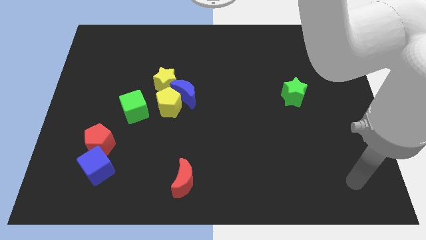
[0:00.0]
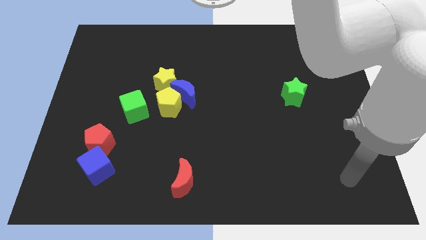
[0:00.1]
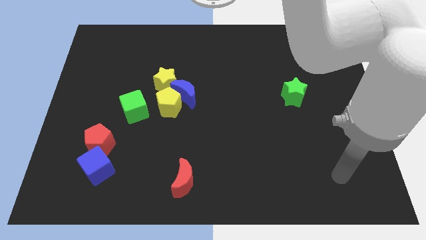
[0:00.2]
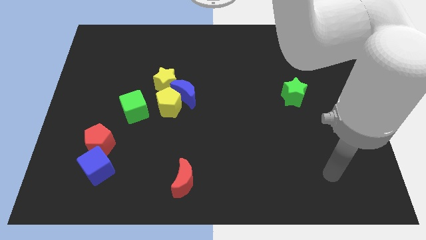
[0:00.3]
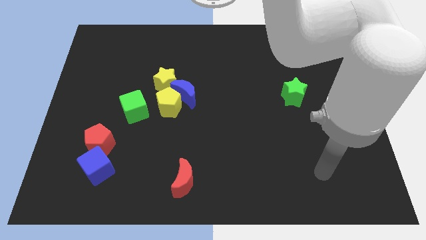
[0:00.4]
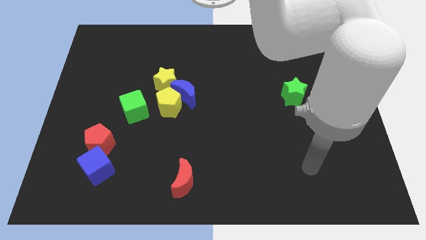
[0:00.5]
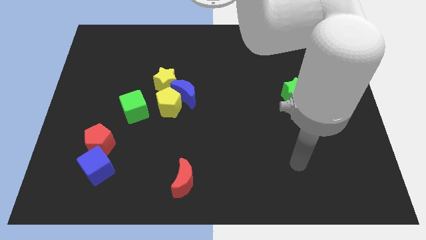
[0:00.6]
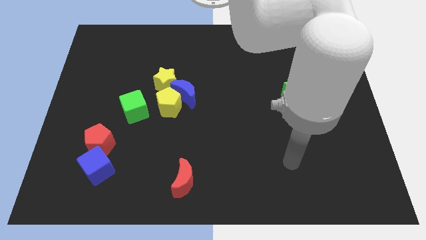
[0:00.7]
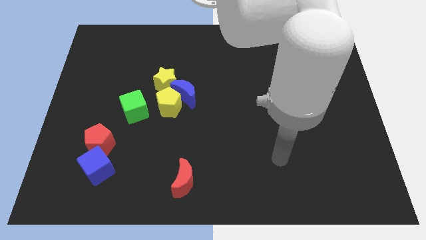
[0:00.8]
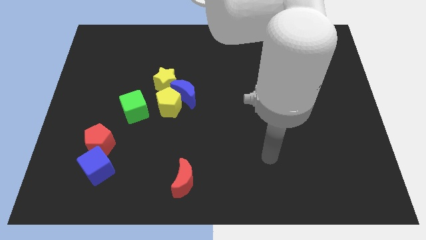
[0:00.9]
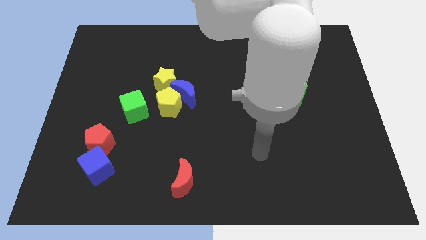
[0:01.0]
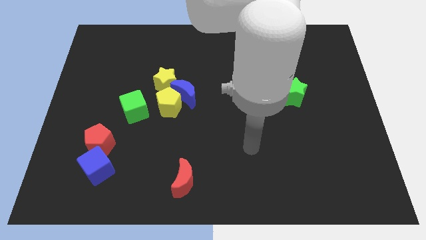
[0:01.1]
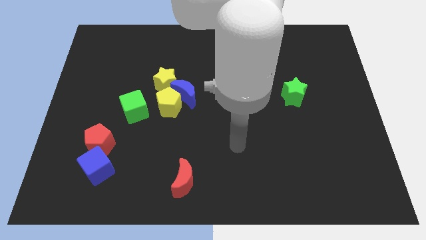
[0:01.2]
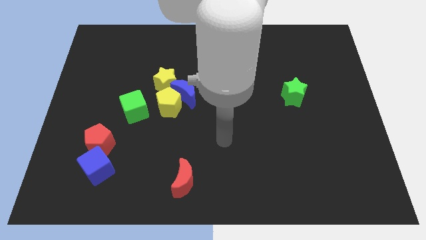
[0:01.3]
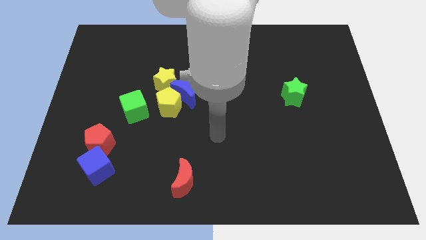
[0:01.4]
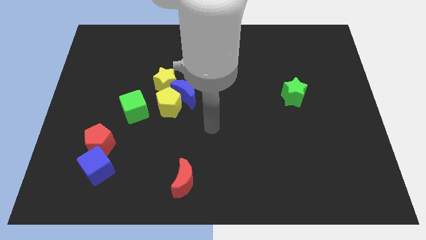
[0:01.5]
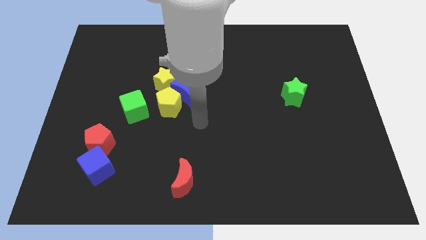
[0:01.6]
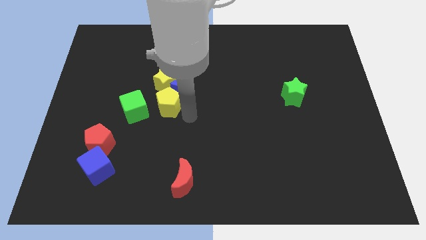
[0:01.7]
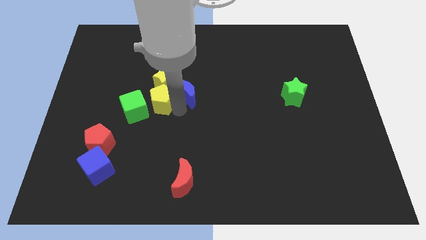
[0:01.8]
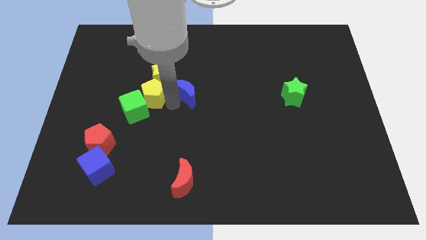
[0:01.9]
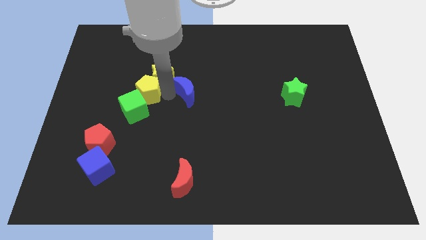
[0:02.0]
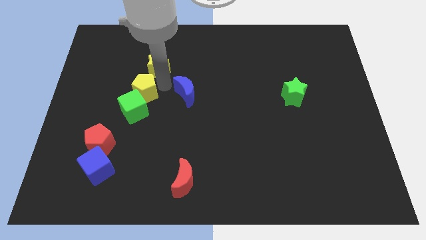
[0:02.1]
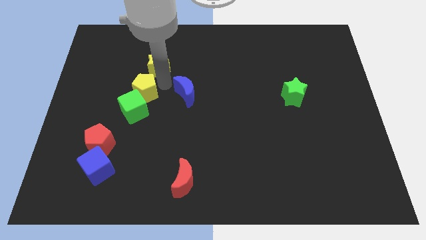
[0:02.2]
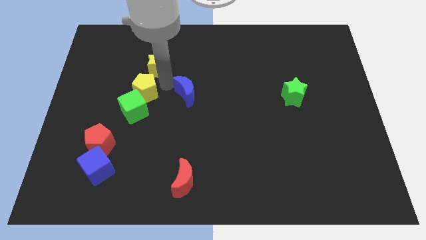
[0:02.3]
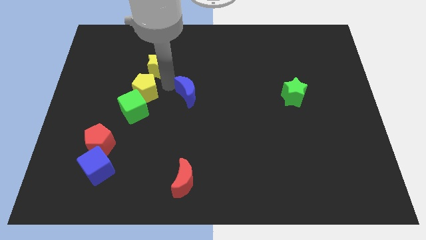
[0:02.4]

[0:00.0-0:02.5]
pull the blue moon apart from the yellow pentagon and yellow star

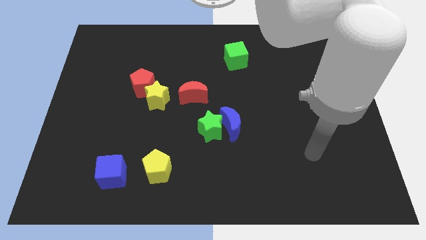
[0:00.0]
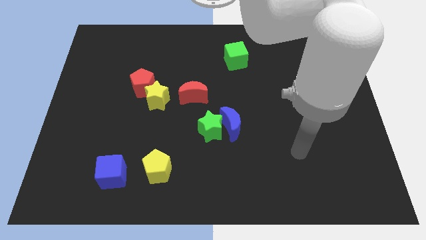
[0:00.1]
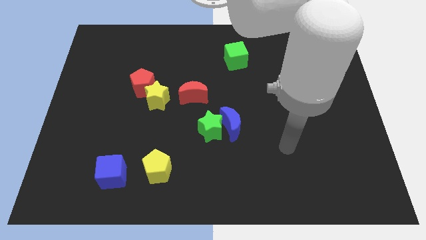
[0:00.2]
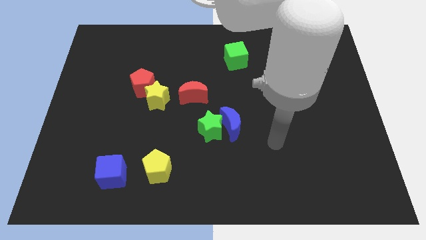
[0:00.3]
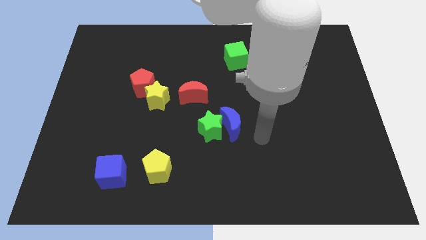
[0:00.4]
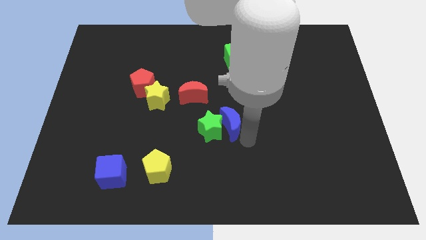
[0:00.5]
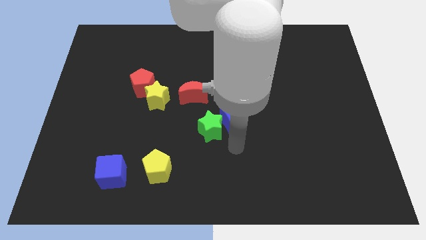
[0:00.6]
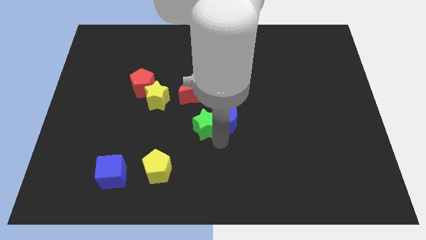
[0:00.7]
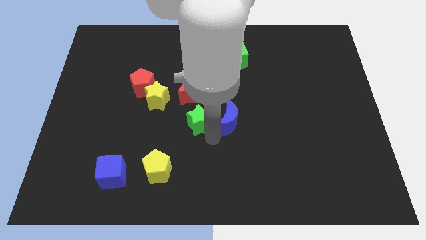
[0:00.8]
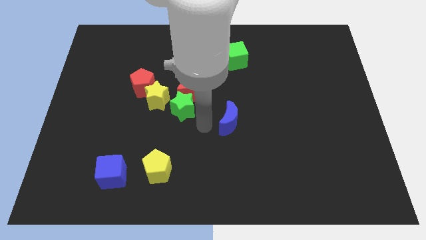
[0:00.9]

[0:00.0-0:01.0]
move the blue moon away from the green star

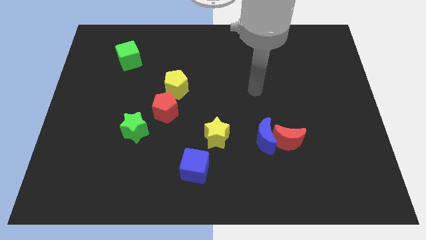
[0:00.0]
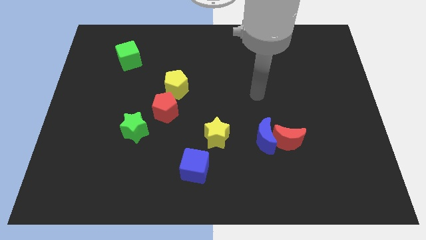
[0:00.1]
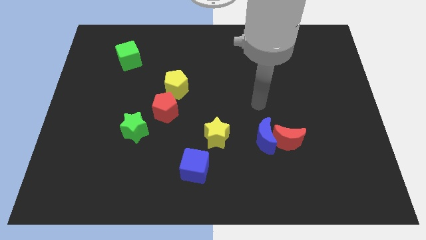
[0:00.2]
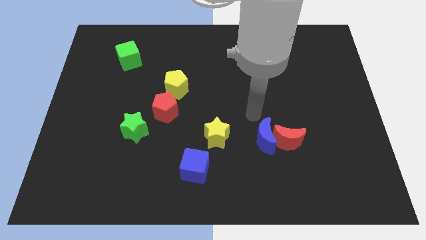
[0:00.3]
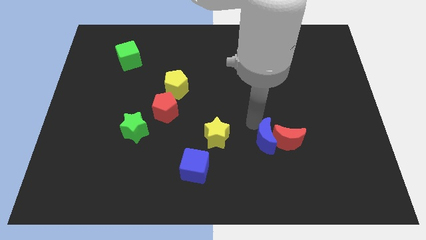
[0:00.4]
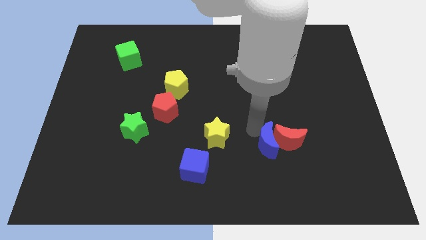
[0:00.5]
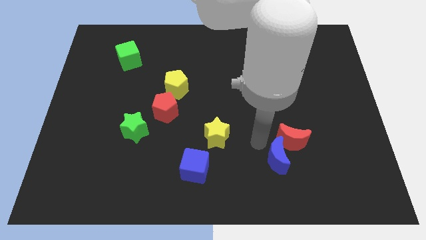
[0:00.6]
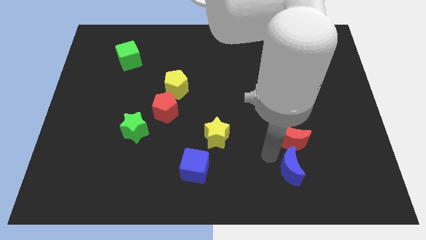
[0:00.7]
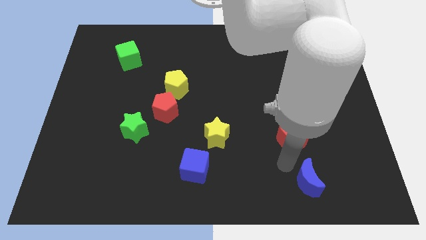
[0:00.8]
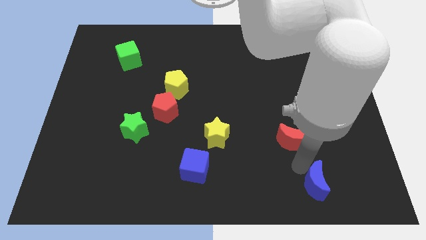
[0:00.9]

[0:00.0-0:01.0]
move the red moon away from the blue moon

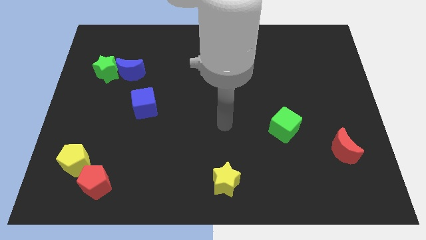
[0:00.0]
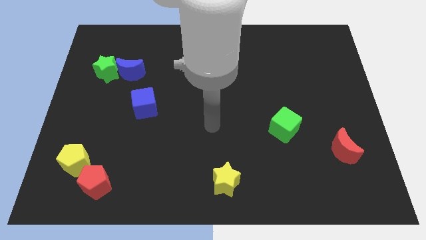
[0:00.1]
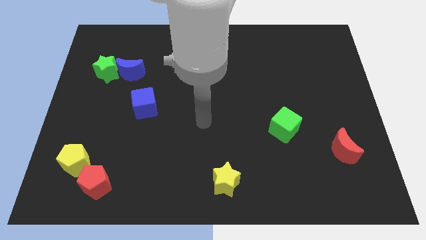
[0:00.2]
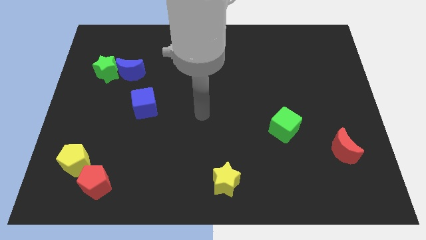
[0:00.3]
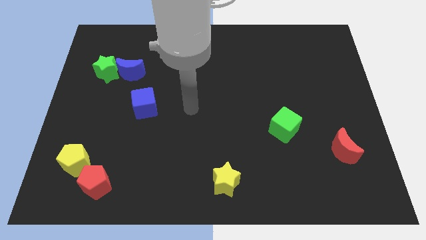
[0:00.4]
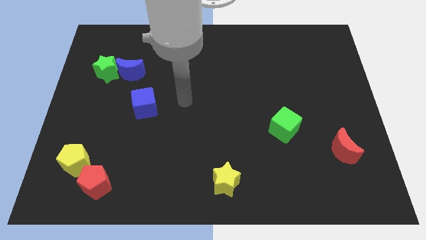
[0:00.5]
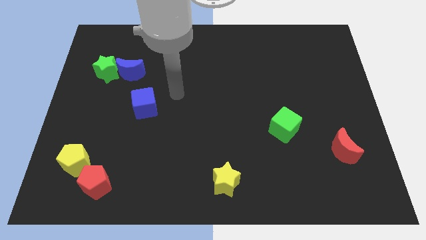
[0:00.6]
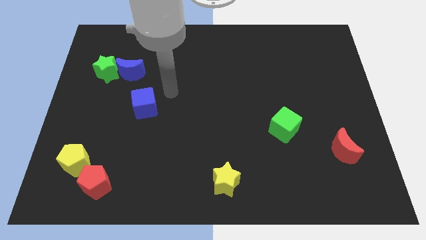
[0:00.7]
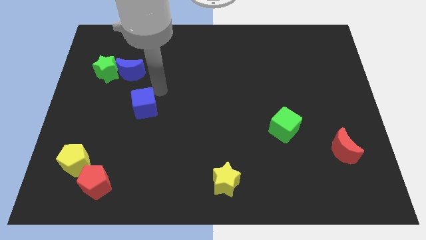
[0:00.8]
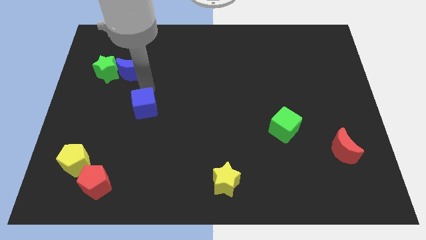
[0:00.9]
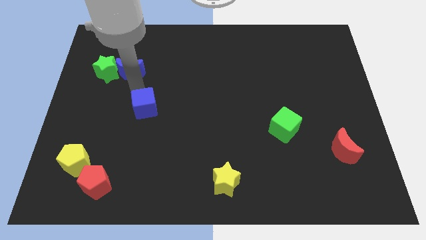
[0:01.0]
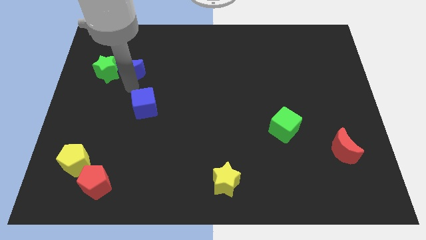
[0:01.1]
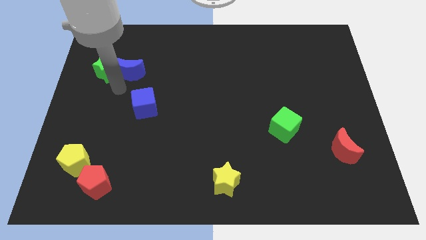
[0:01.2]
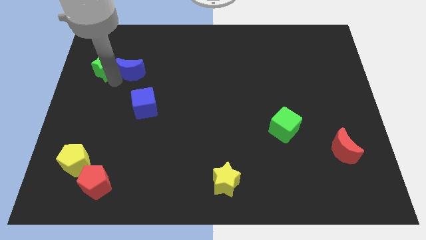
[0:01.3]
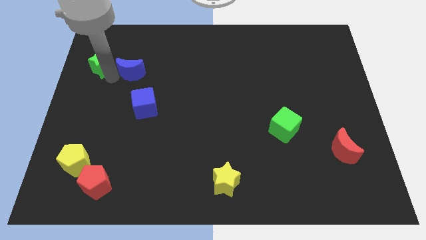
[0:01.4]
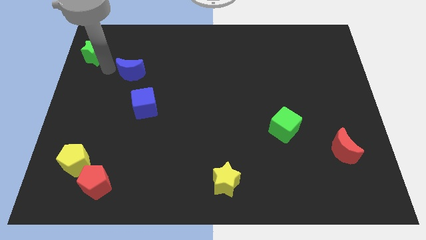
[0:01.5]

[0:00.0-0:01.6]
separate the blue moon from the green star

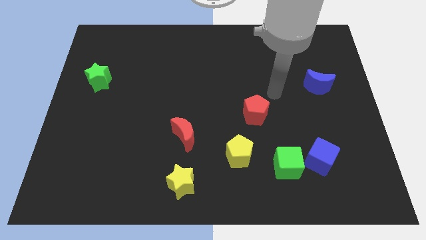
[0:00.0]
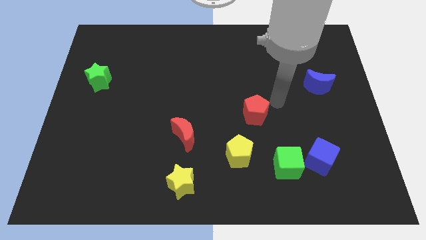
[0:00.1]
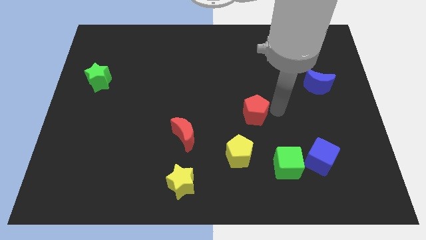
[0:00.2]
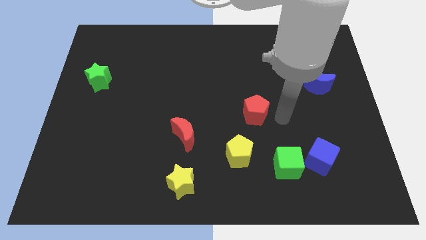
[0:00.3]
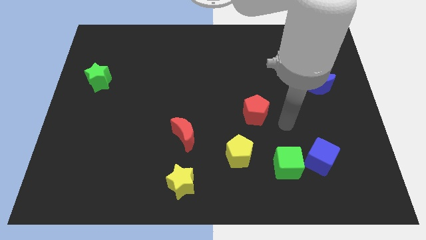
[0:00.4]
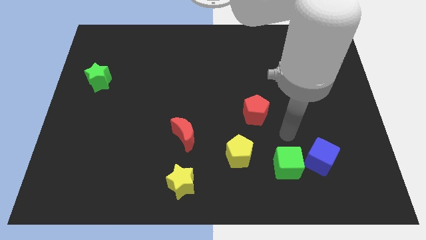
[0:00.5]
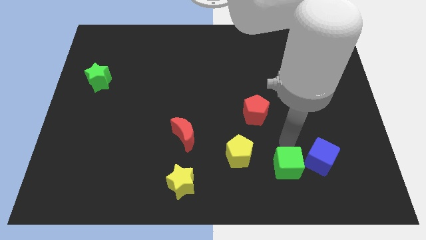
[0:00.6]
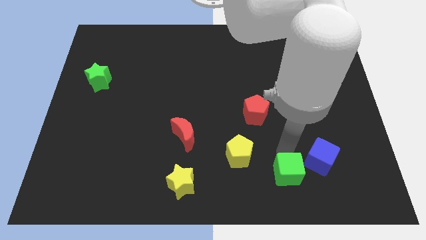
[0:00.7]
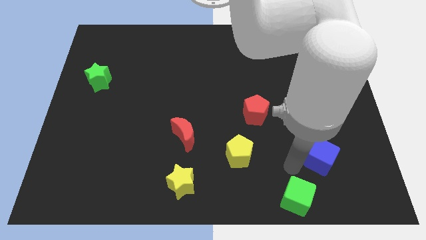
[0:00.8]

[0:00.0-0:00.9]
pull the blue cube apart from the green cube

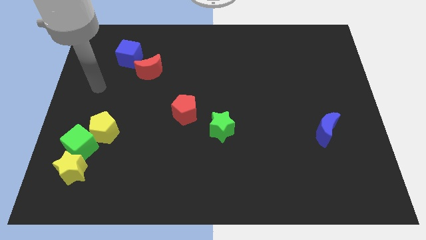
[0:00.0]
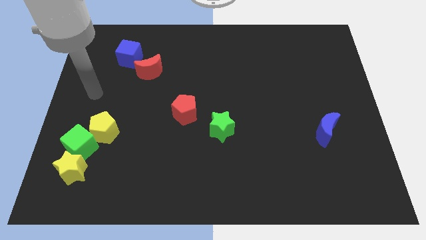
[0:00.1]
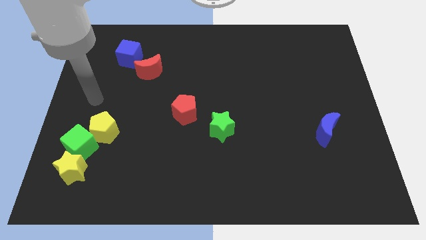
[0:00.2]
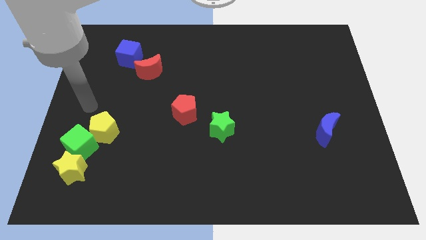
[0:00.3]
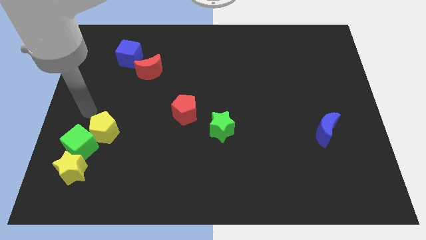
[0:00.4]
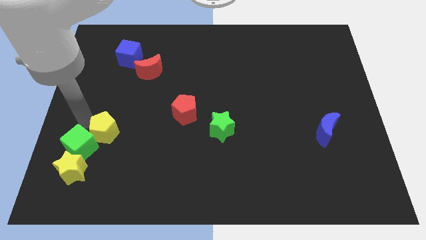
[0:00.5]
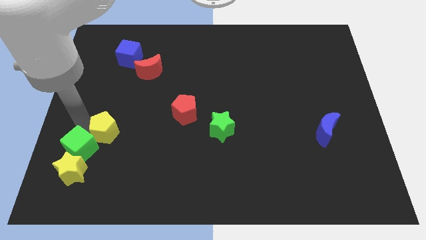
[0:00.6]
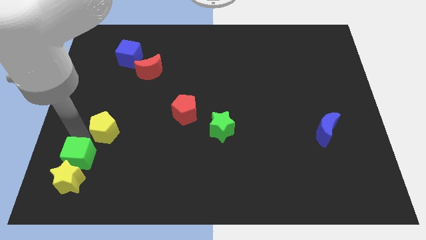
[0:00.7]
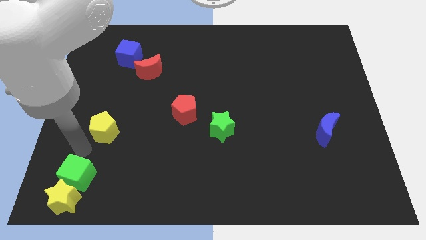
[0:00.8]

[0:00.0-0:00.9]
pull the yellow pentagon apart from the green cube

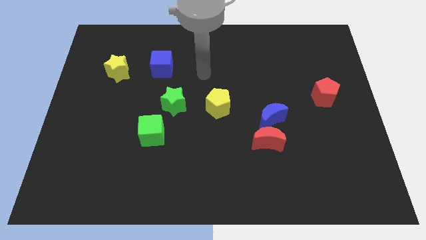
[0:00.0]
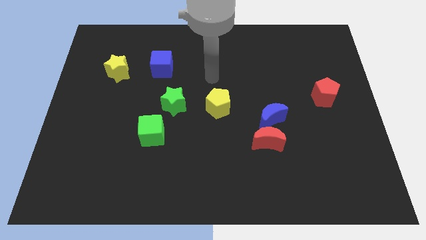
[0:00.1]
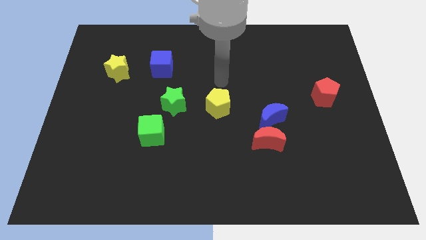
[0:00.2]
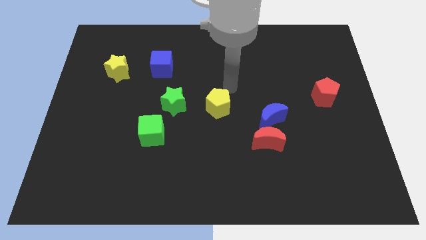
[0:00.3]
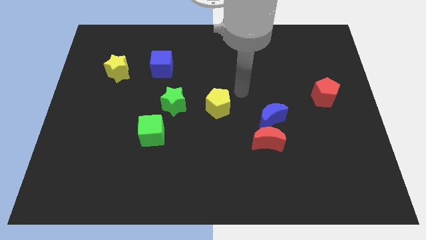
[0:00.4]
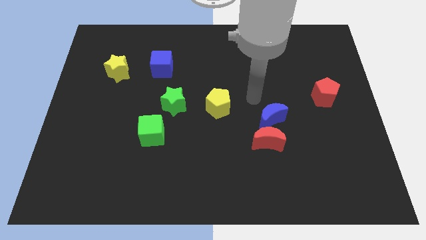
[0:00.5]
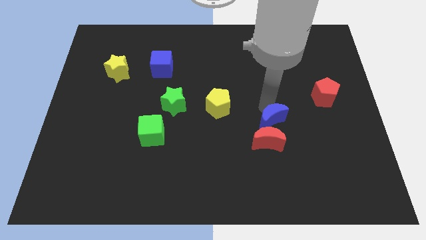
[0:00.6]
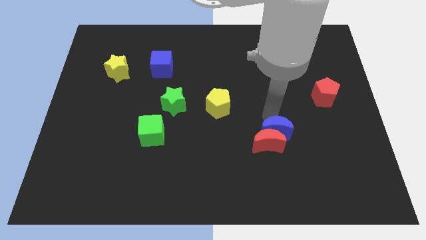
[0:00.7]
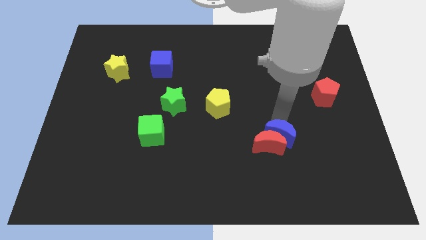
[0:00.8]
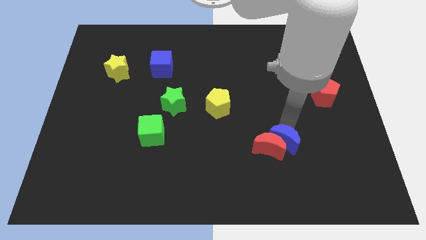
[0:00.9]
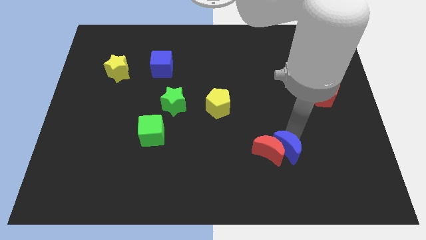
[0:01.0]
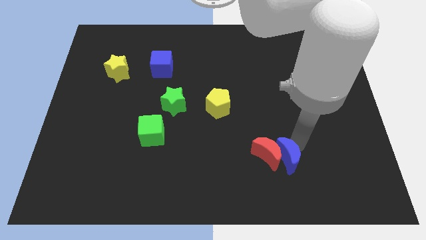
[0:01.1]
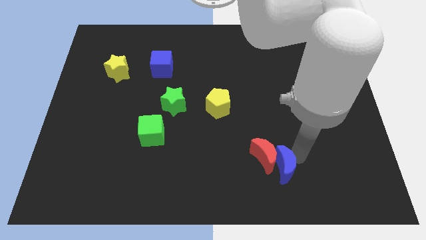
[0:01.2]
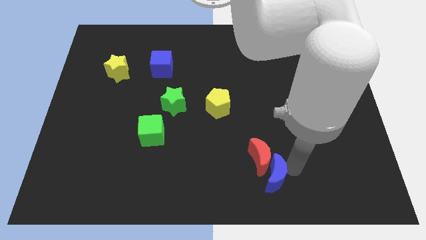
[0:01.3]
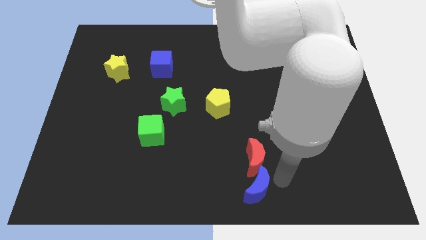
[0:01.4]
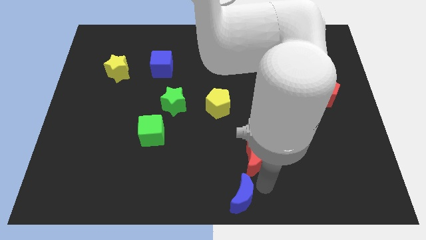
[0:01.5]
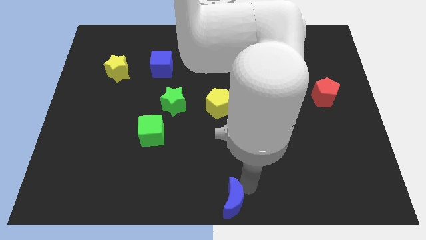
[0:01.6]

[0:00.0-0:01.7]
separate the red moon from the blue moon
